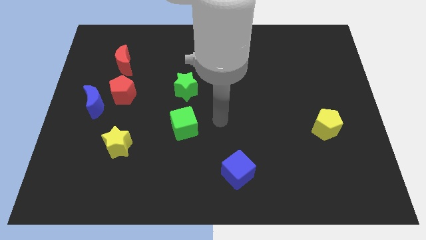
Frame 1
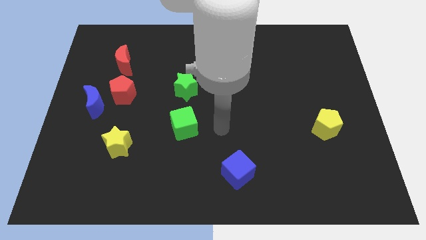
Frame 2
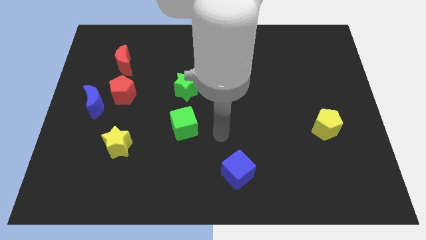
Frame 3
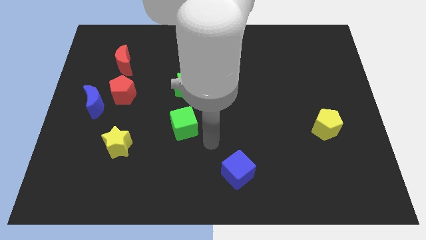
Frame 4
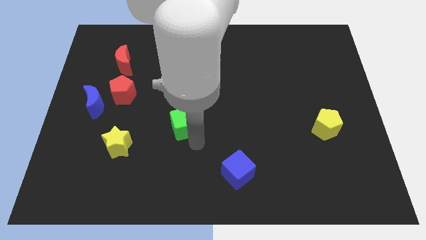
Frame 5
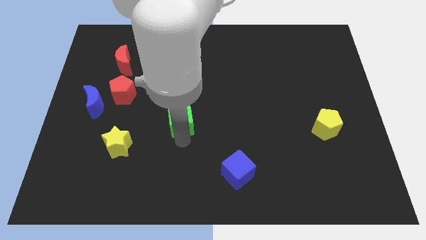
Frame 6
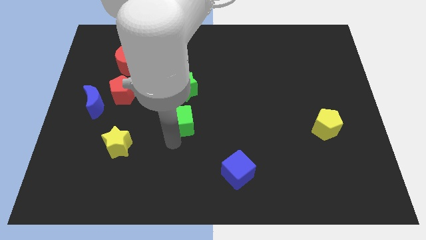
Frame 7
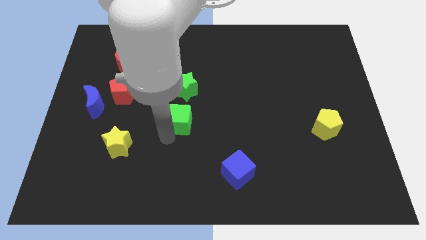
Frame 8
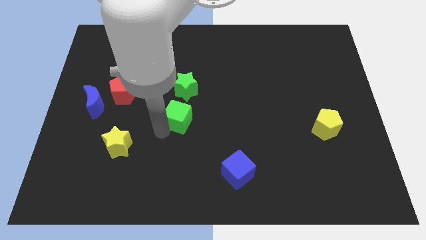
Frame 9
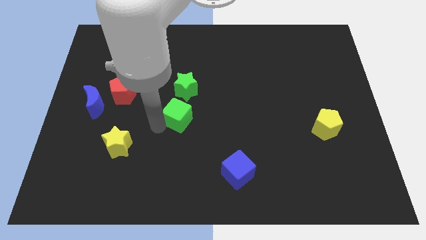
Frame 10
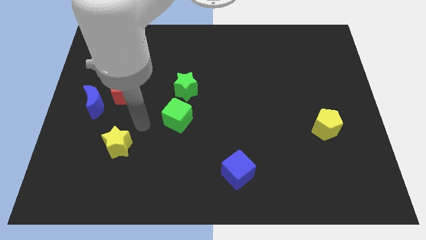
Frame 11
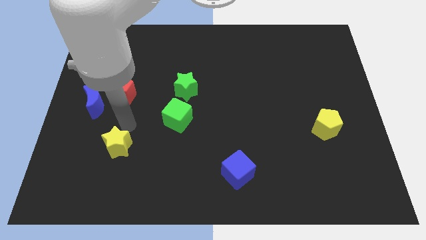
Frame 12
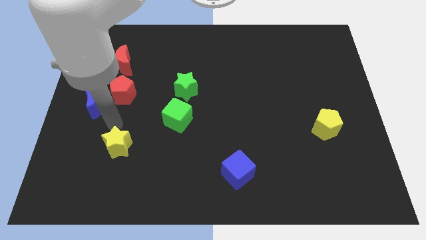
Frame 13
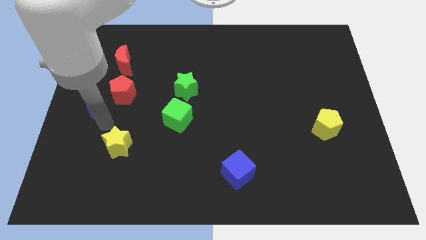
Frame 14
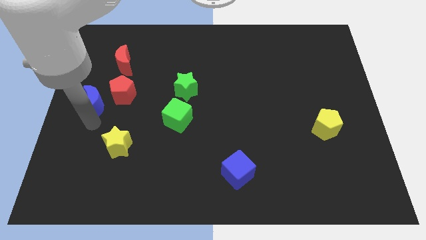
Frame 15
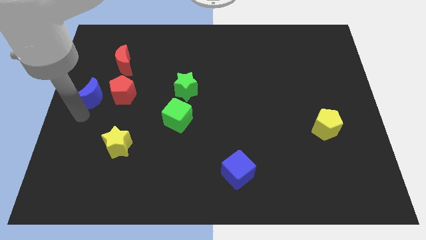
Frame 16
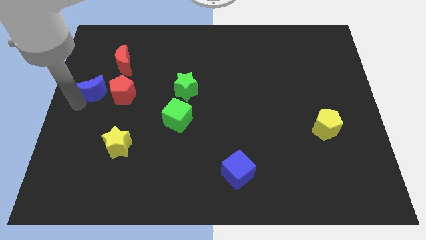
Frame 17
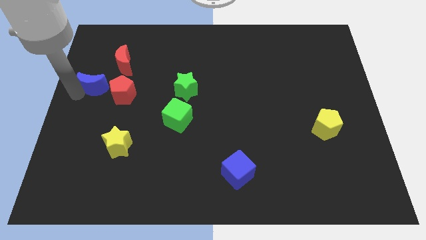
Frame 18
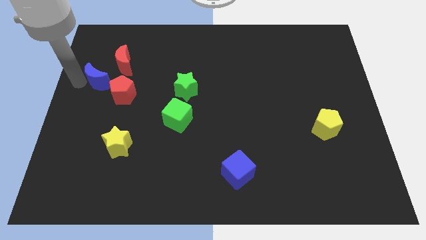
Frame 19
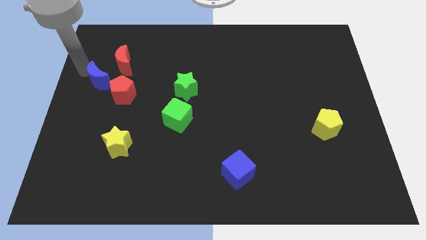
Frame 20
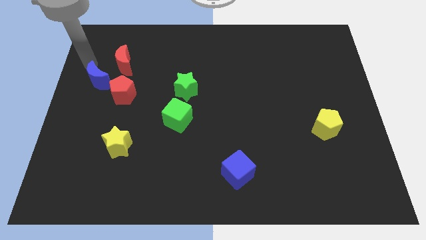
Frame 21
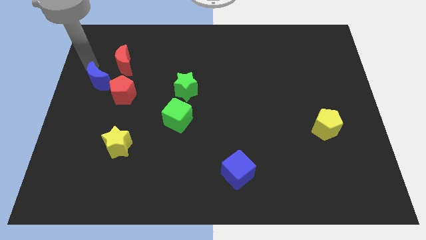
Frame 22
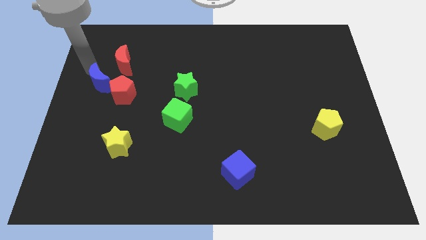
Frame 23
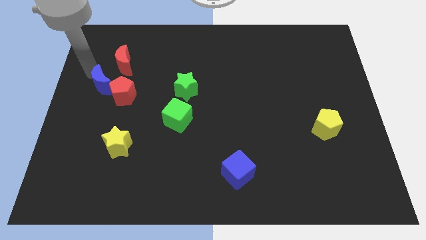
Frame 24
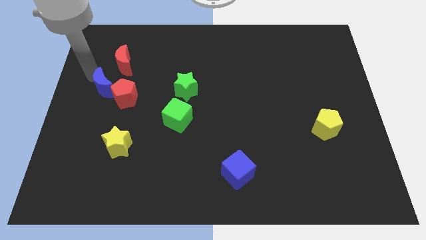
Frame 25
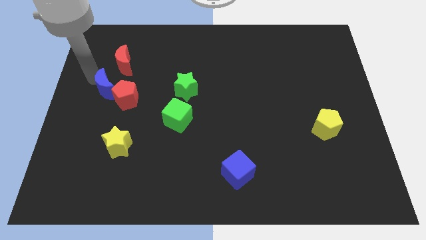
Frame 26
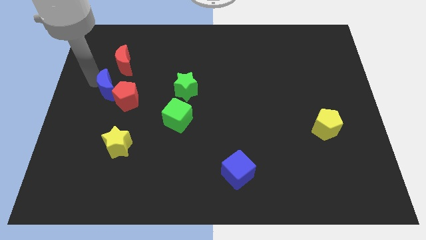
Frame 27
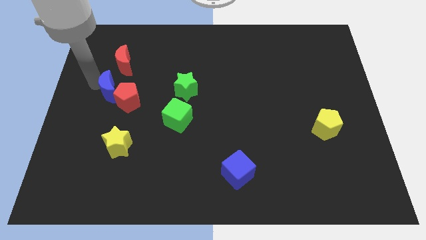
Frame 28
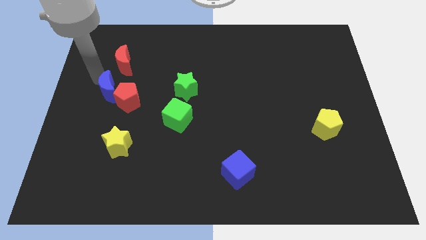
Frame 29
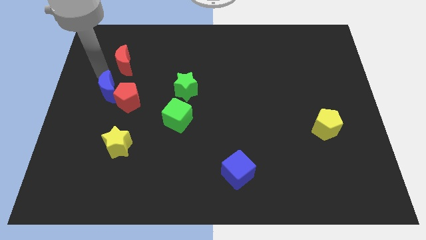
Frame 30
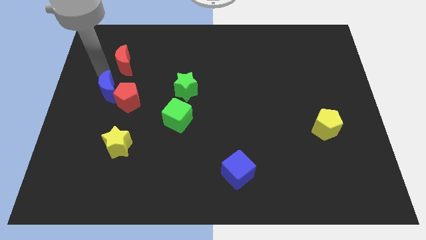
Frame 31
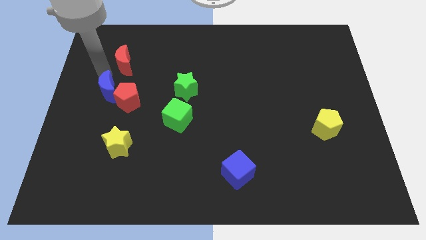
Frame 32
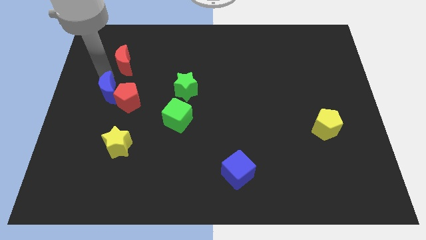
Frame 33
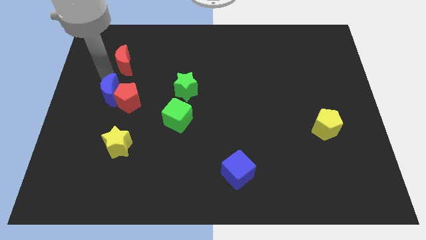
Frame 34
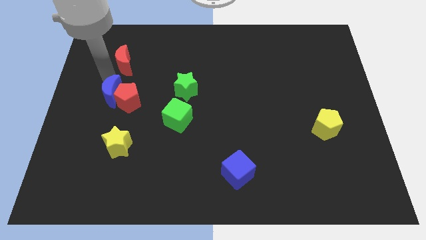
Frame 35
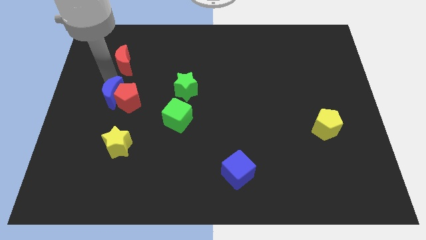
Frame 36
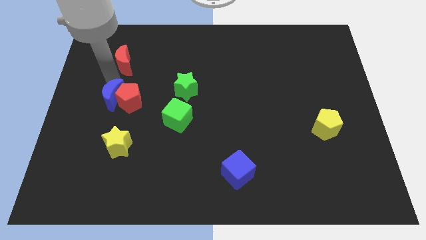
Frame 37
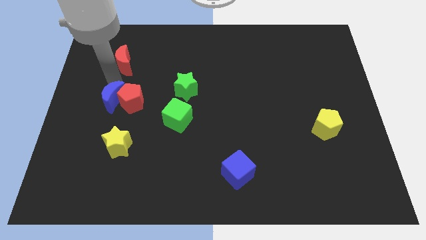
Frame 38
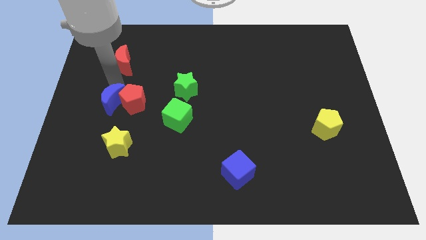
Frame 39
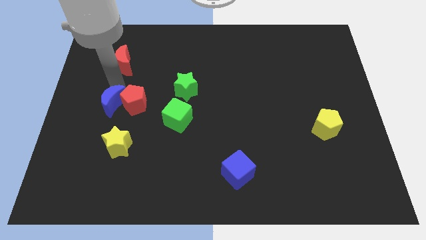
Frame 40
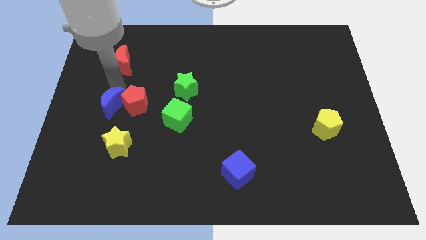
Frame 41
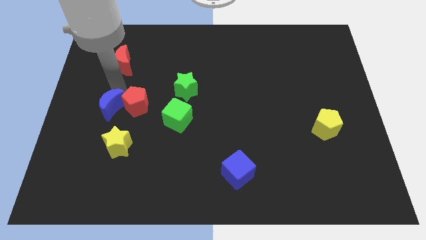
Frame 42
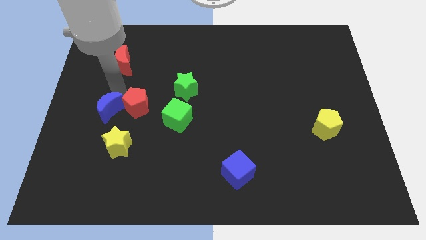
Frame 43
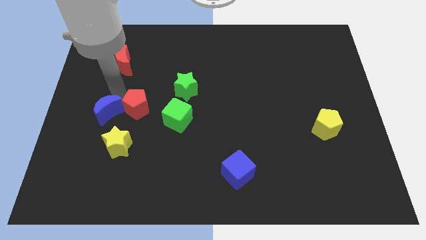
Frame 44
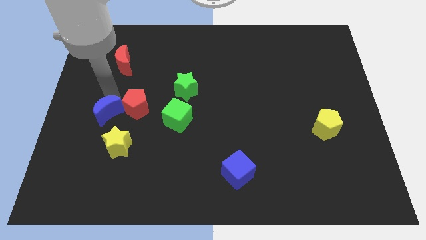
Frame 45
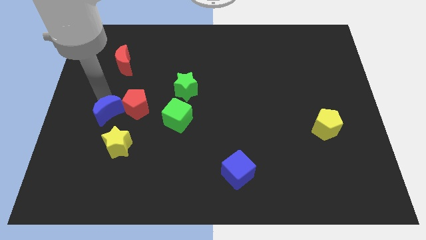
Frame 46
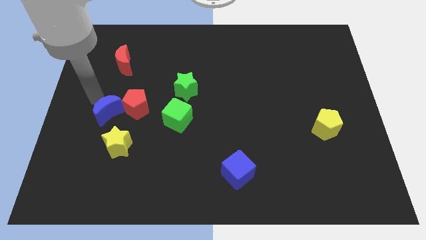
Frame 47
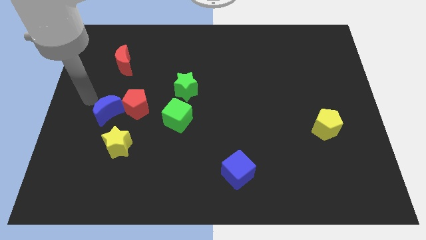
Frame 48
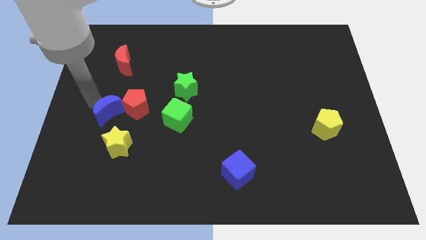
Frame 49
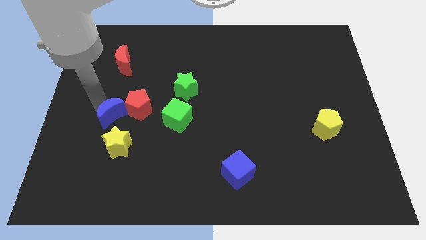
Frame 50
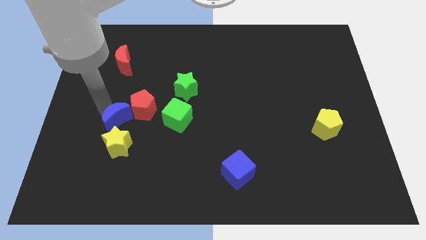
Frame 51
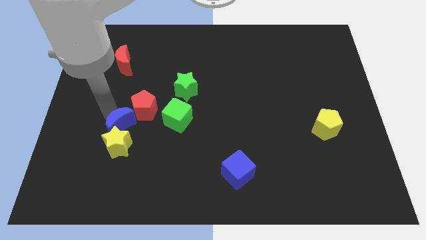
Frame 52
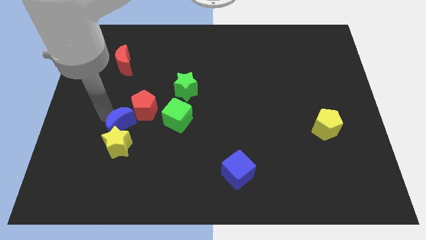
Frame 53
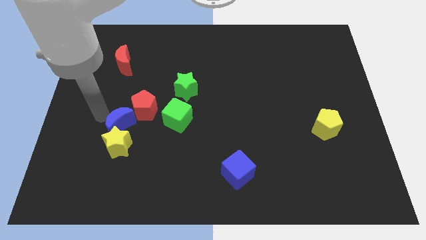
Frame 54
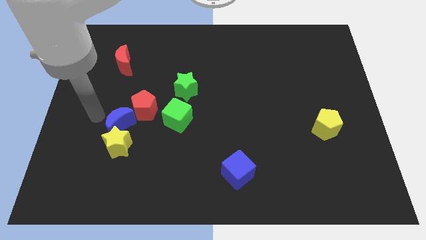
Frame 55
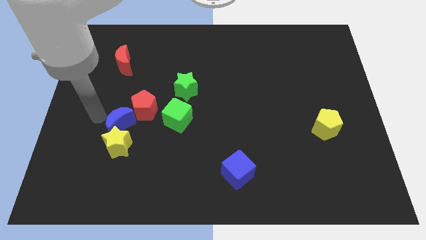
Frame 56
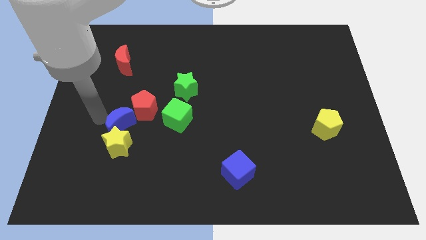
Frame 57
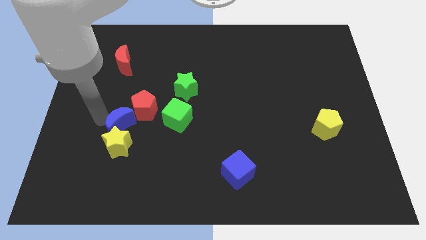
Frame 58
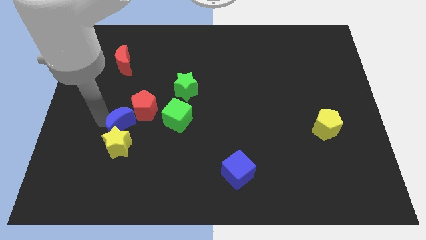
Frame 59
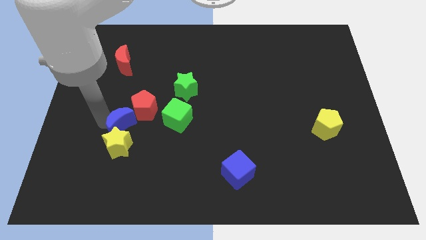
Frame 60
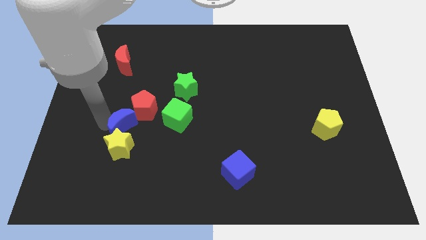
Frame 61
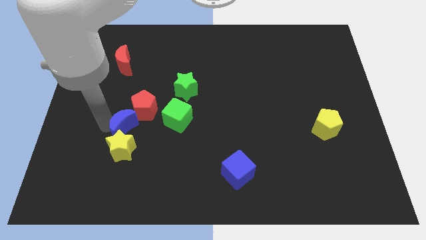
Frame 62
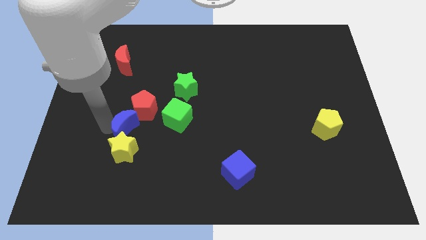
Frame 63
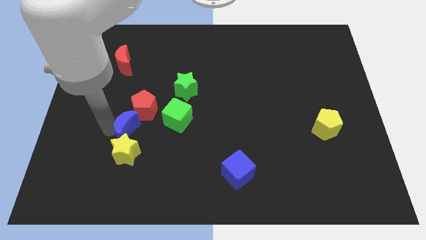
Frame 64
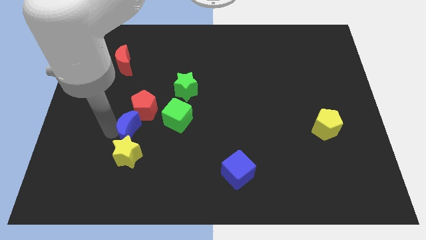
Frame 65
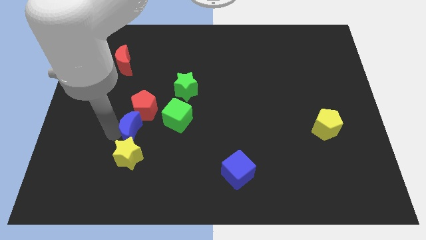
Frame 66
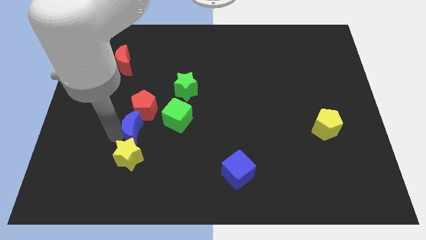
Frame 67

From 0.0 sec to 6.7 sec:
put the blue moon to the bottom left of the green cube

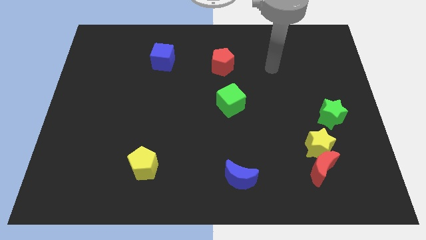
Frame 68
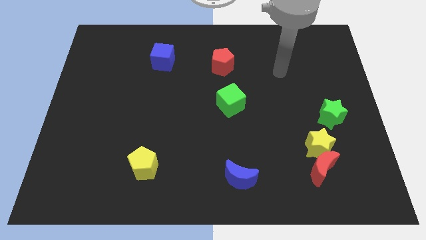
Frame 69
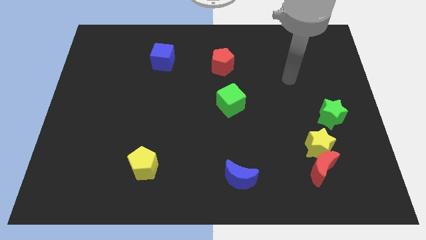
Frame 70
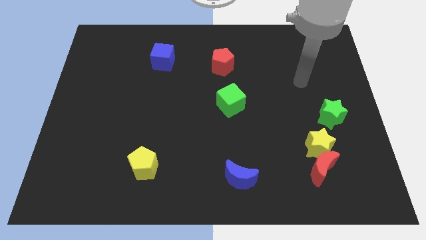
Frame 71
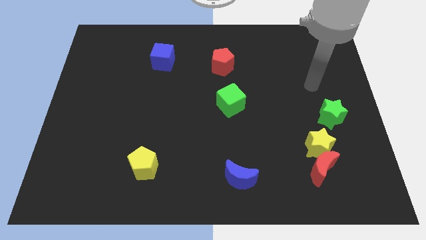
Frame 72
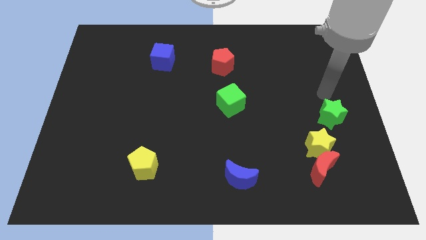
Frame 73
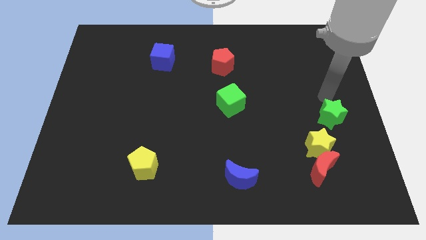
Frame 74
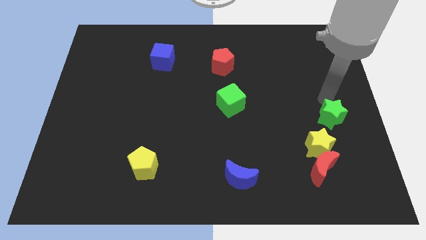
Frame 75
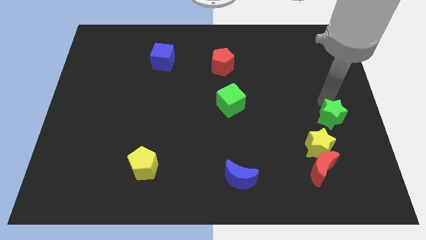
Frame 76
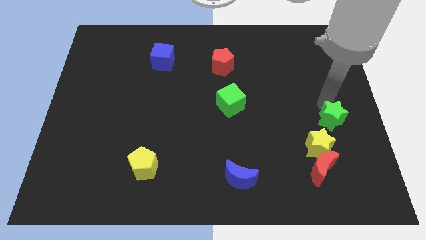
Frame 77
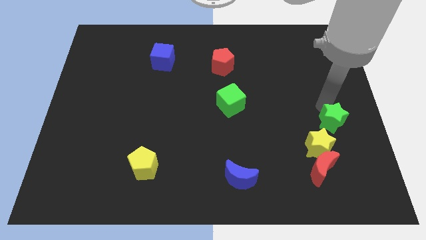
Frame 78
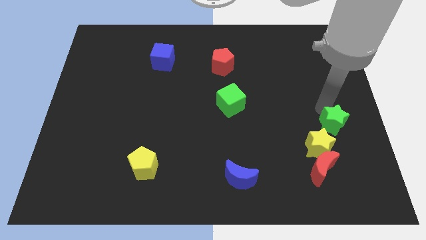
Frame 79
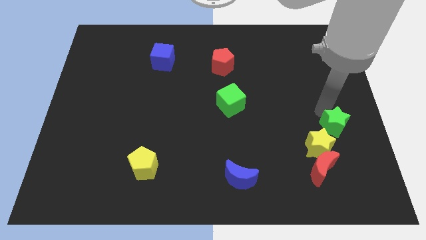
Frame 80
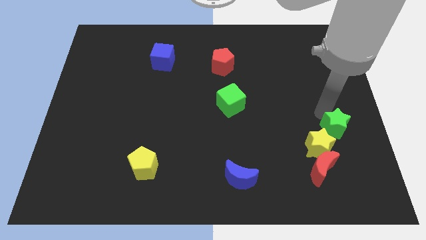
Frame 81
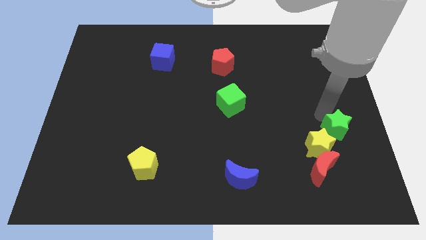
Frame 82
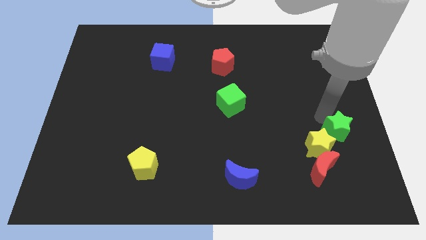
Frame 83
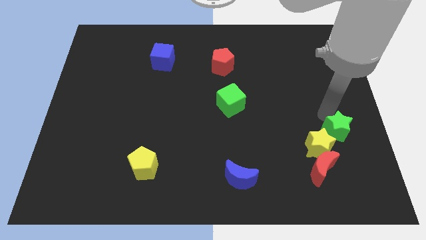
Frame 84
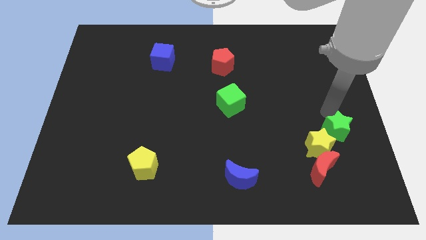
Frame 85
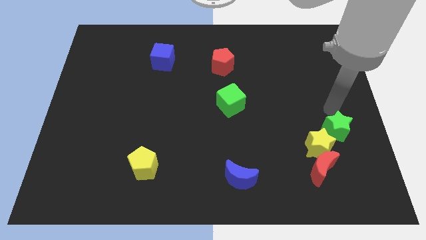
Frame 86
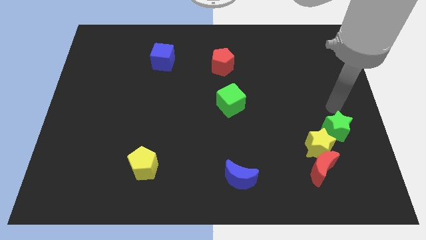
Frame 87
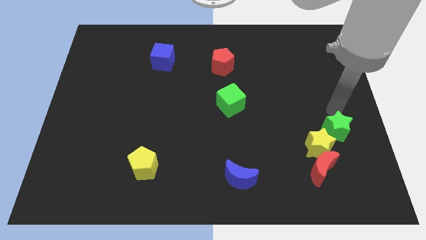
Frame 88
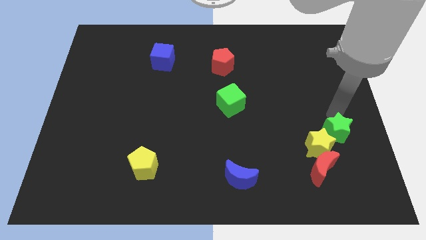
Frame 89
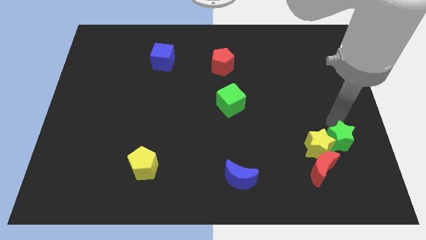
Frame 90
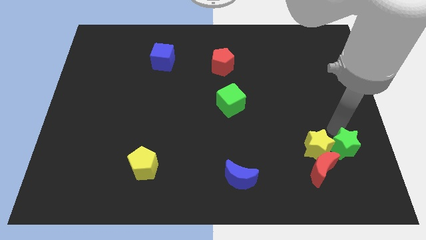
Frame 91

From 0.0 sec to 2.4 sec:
push the green star diagonally down and to the right of the yellow star
